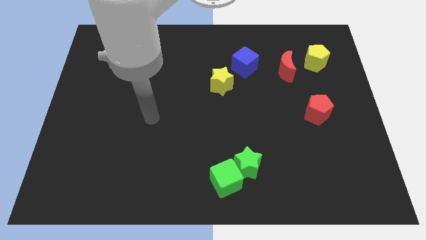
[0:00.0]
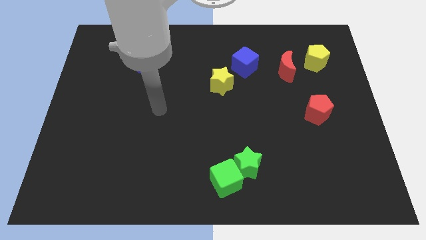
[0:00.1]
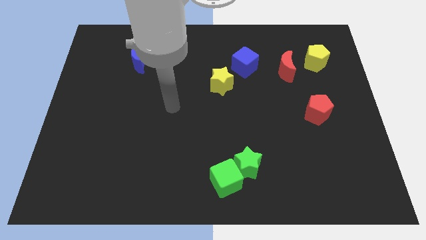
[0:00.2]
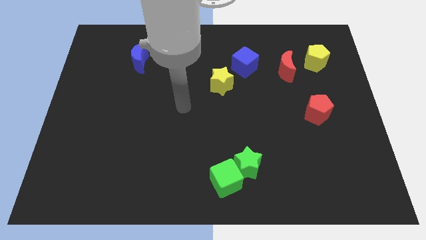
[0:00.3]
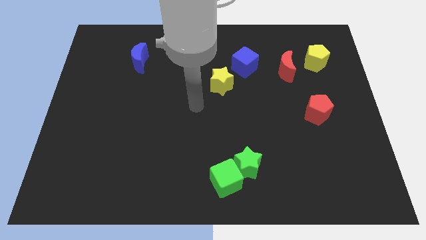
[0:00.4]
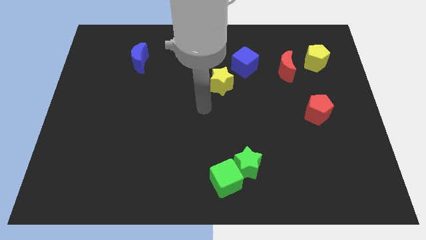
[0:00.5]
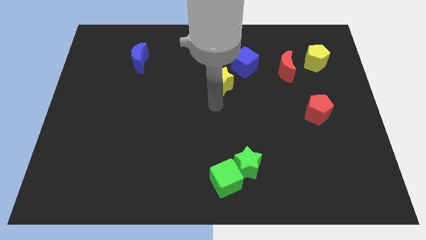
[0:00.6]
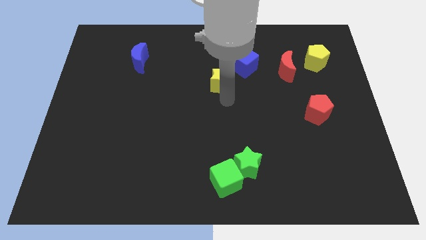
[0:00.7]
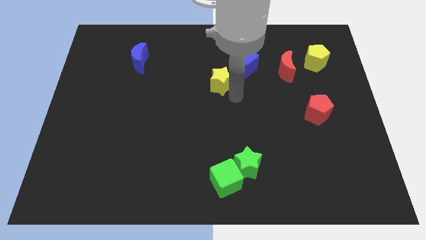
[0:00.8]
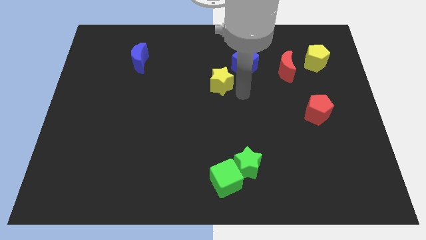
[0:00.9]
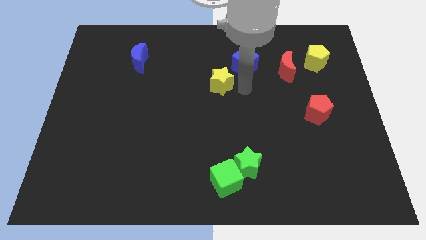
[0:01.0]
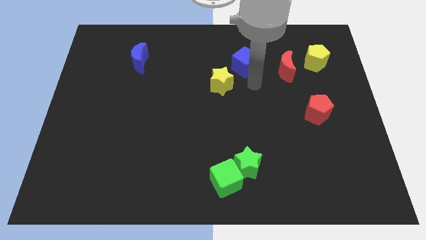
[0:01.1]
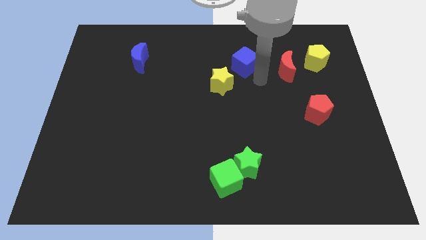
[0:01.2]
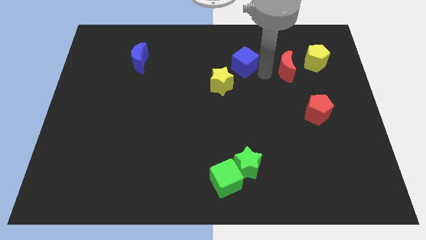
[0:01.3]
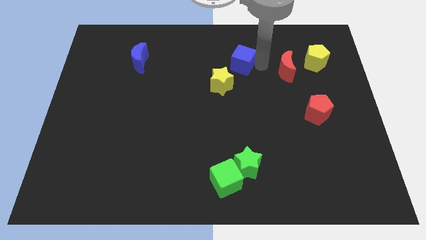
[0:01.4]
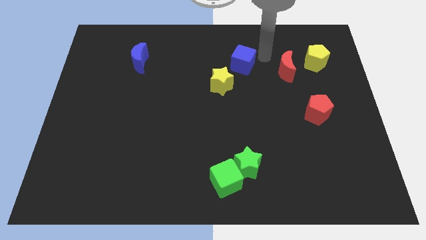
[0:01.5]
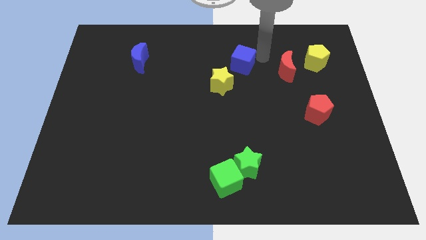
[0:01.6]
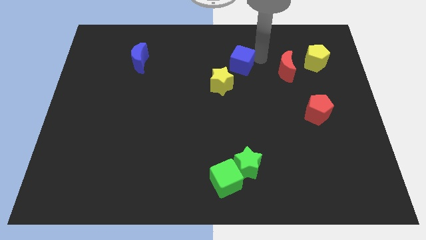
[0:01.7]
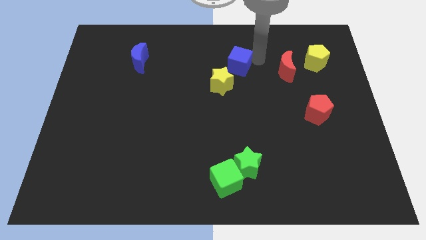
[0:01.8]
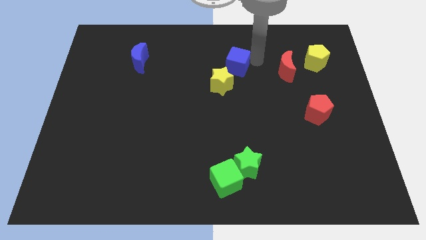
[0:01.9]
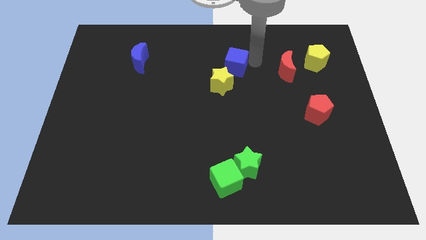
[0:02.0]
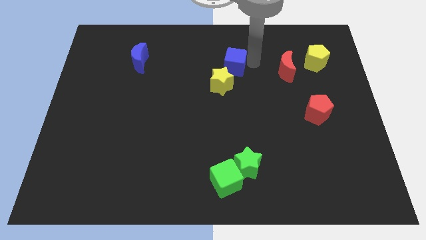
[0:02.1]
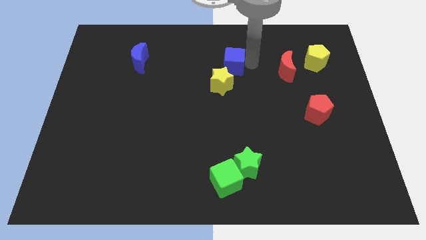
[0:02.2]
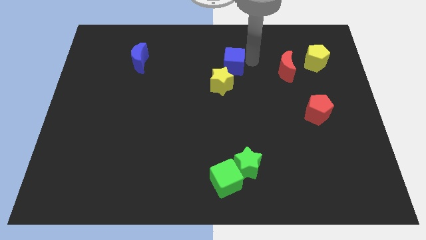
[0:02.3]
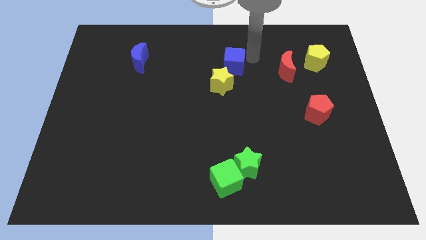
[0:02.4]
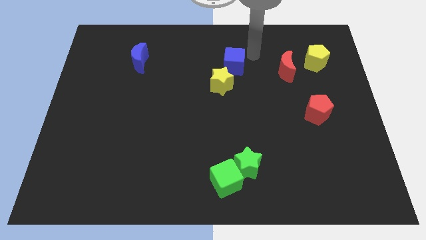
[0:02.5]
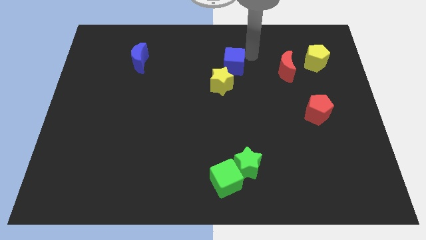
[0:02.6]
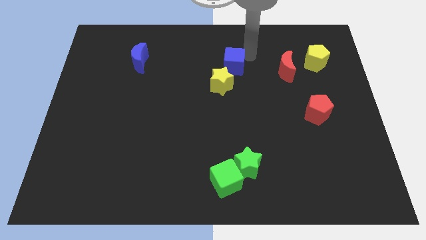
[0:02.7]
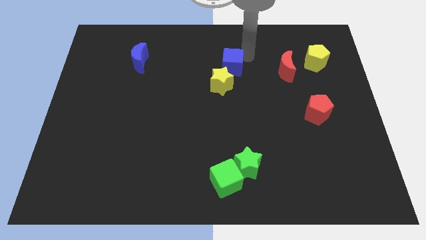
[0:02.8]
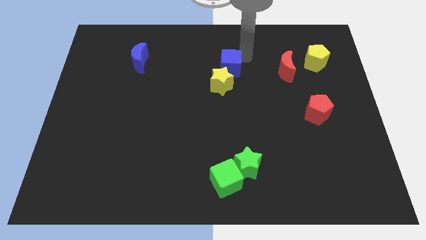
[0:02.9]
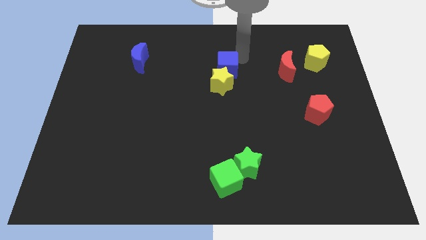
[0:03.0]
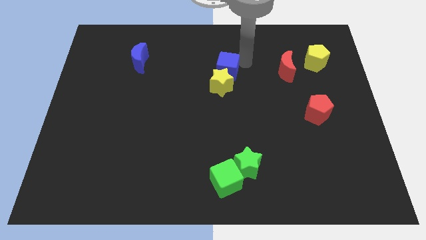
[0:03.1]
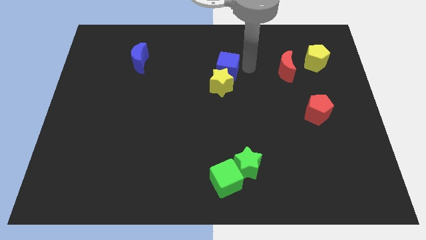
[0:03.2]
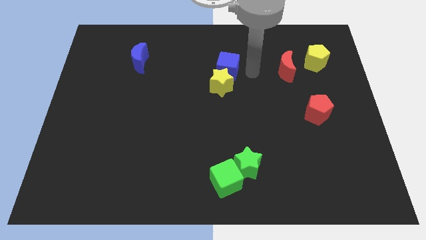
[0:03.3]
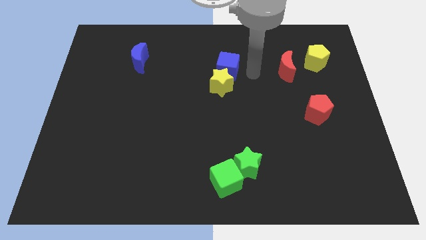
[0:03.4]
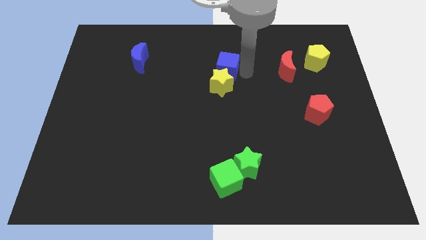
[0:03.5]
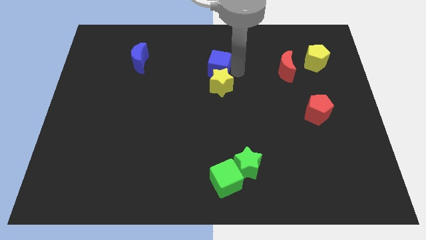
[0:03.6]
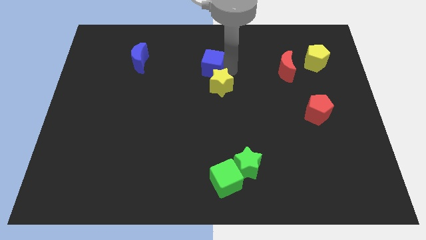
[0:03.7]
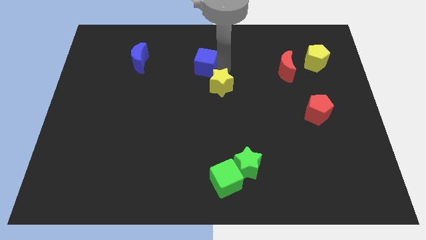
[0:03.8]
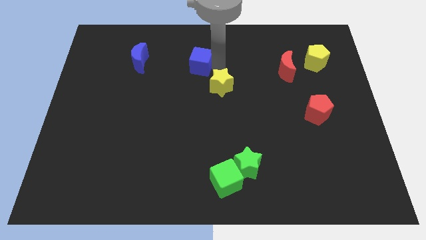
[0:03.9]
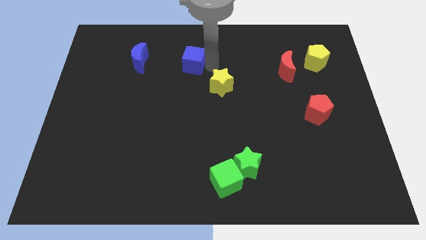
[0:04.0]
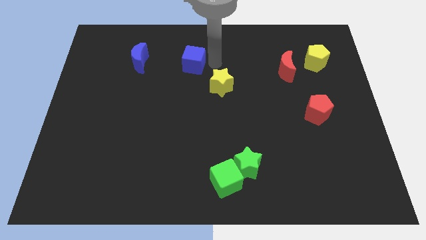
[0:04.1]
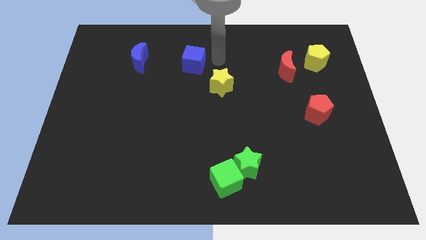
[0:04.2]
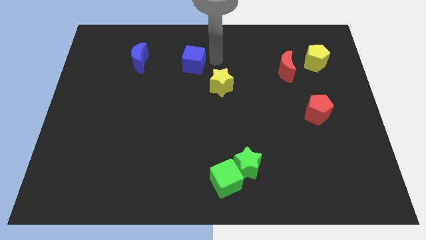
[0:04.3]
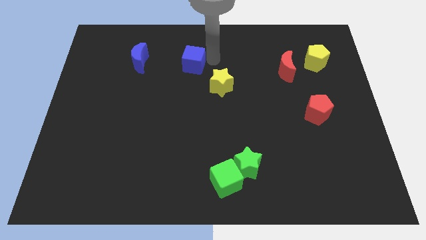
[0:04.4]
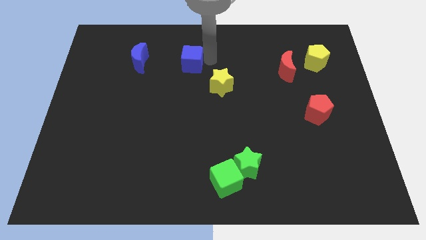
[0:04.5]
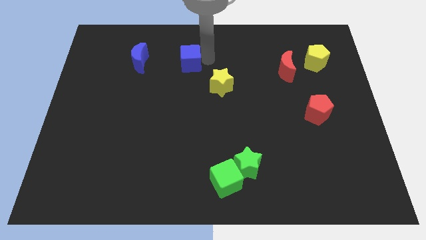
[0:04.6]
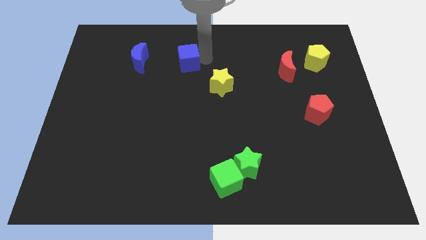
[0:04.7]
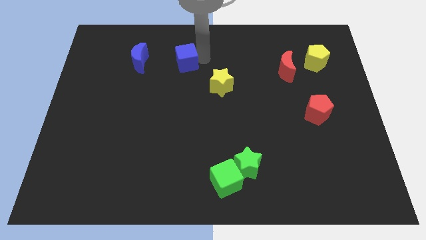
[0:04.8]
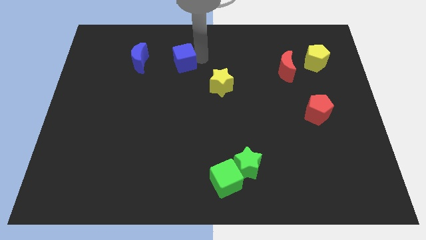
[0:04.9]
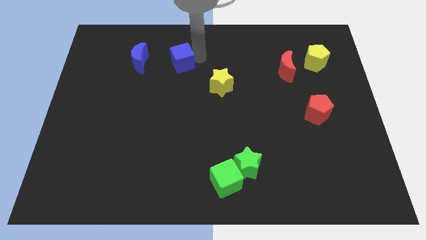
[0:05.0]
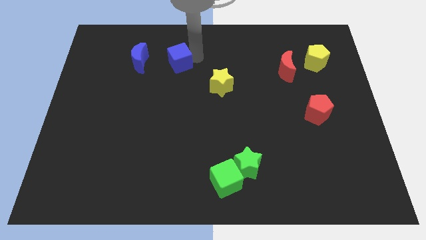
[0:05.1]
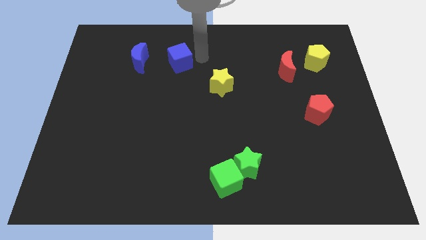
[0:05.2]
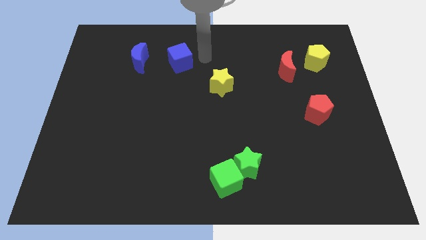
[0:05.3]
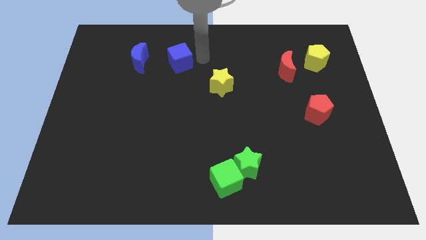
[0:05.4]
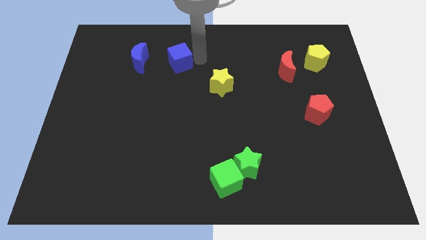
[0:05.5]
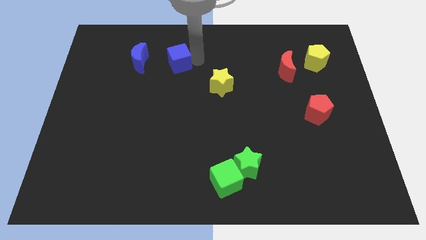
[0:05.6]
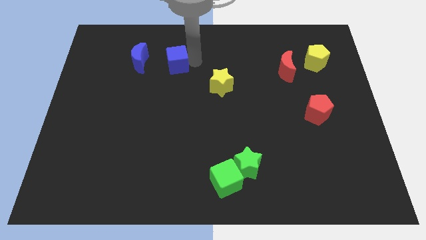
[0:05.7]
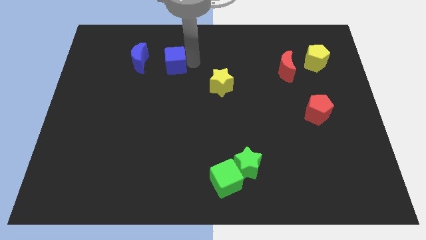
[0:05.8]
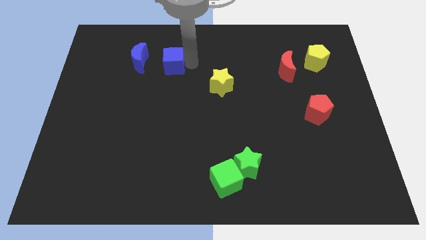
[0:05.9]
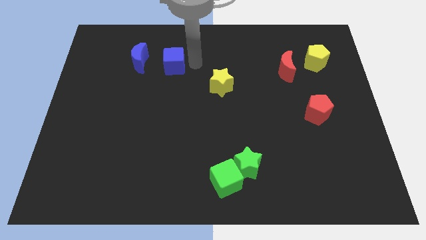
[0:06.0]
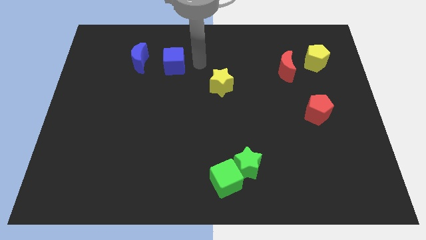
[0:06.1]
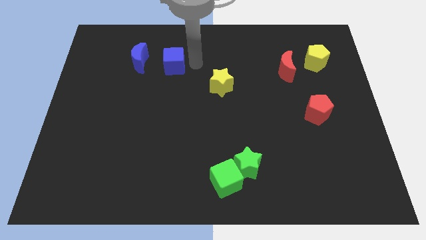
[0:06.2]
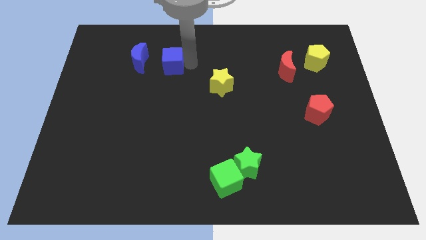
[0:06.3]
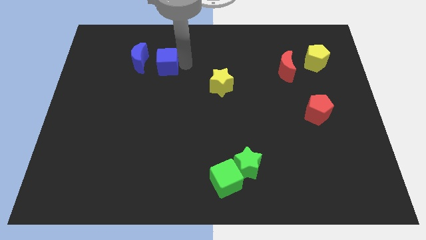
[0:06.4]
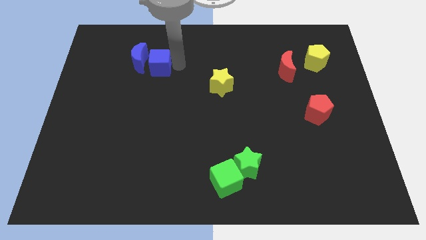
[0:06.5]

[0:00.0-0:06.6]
slide the blue cube towards the blue moon

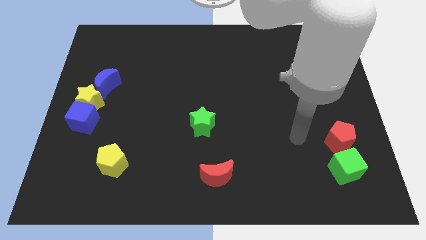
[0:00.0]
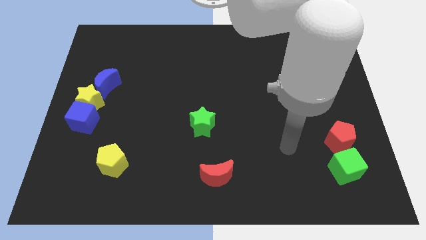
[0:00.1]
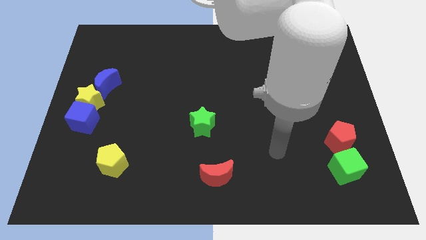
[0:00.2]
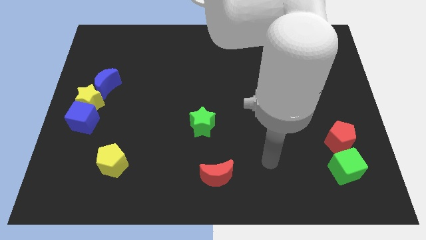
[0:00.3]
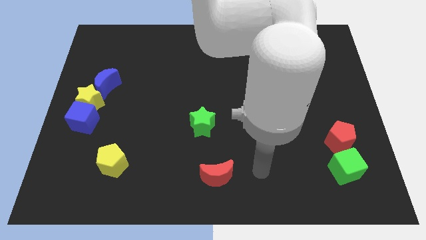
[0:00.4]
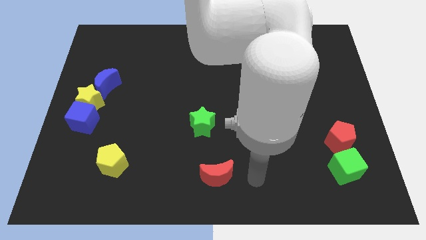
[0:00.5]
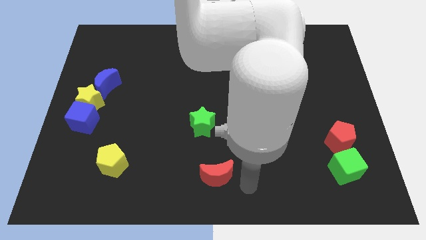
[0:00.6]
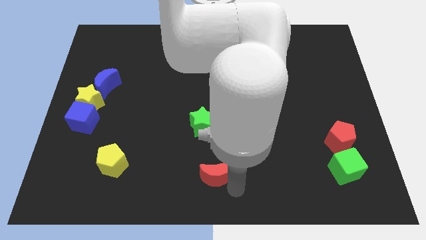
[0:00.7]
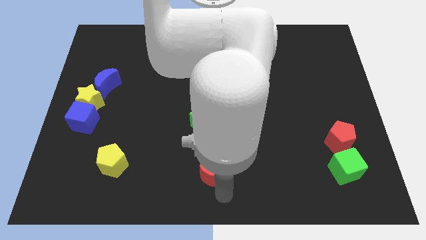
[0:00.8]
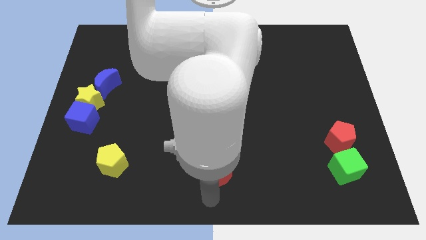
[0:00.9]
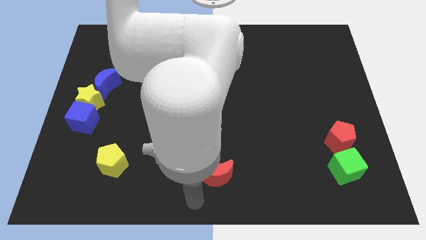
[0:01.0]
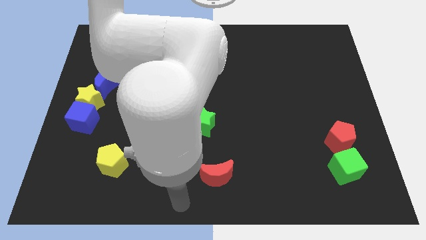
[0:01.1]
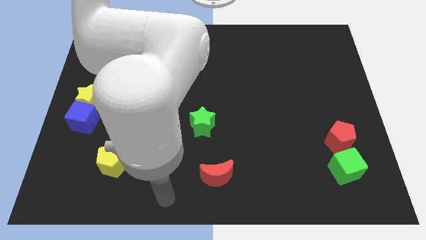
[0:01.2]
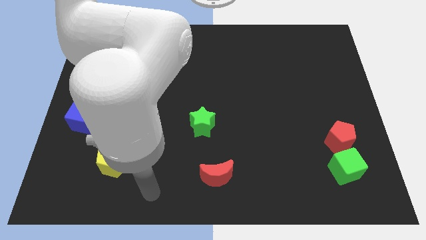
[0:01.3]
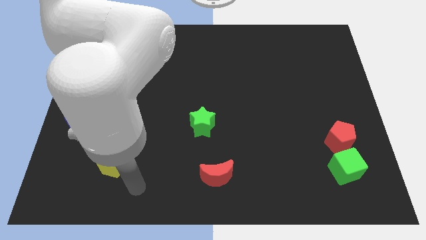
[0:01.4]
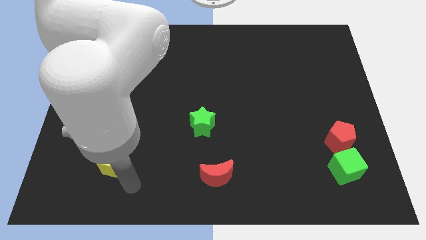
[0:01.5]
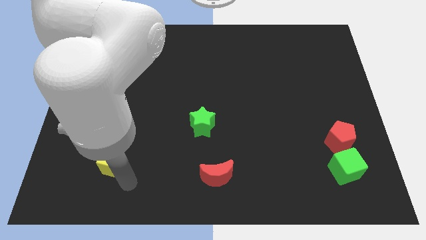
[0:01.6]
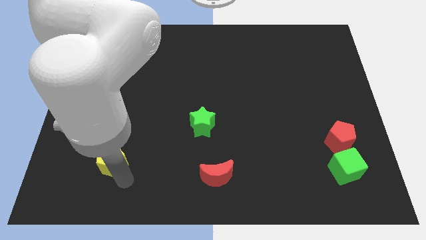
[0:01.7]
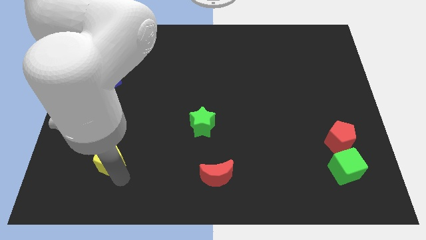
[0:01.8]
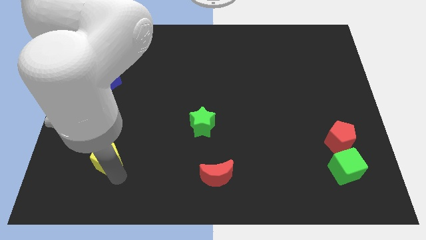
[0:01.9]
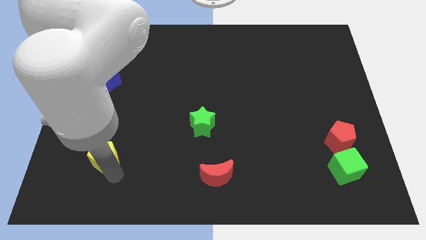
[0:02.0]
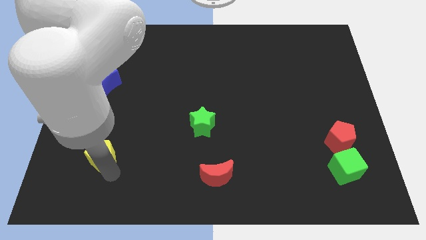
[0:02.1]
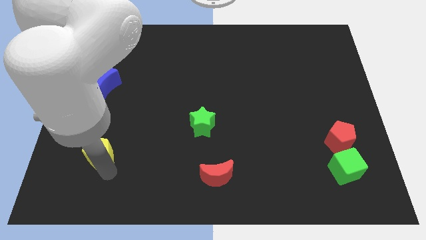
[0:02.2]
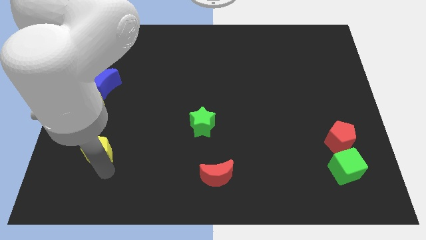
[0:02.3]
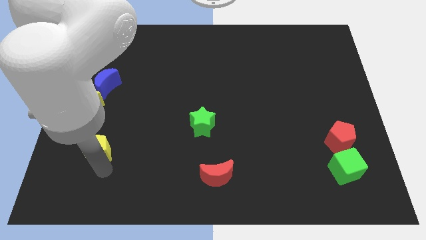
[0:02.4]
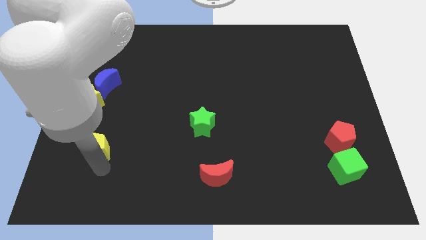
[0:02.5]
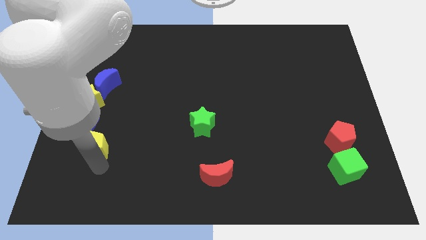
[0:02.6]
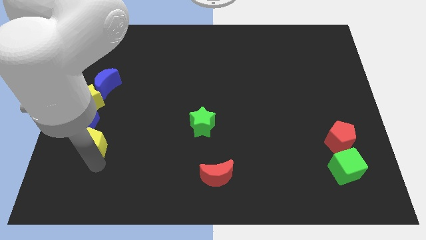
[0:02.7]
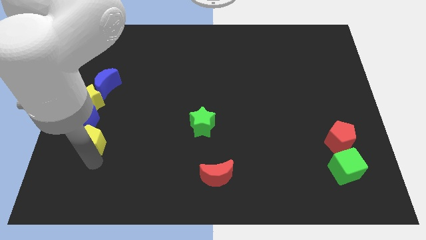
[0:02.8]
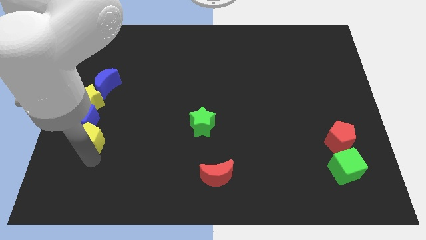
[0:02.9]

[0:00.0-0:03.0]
push the yellow pentagon to the blue cube
